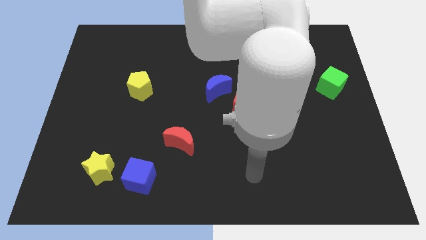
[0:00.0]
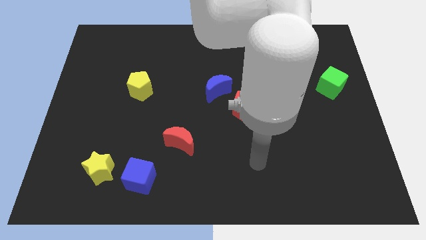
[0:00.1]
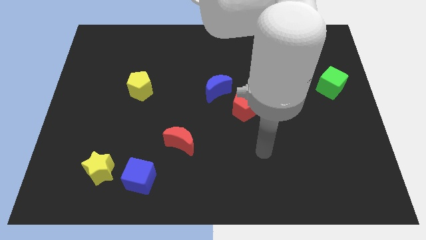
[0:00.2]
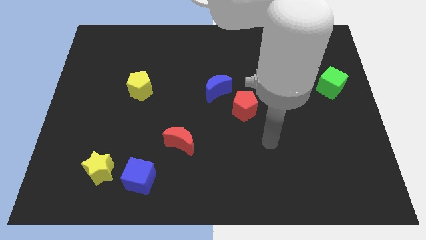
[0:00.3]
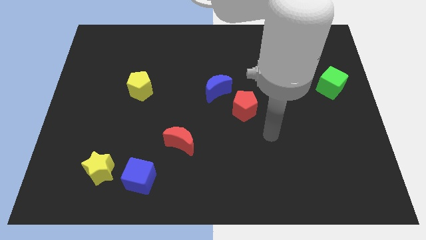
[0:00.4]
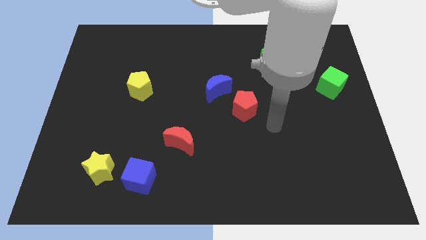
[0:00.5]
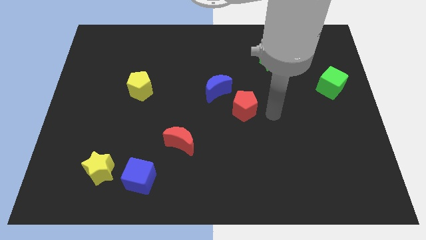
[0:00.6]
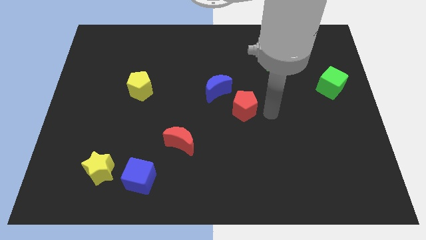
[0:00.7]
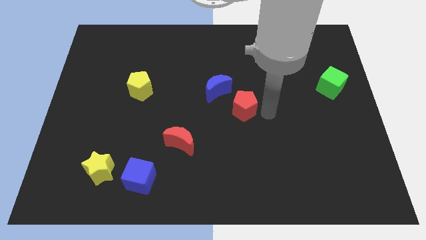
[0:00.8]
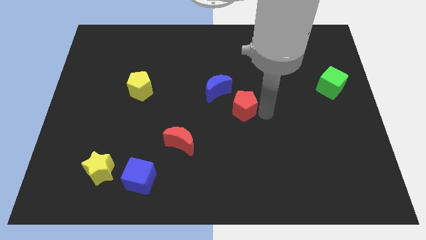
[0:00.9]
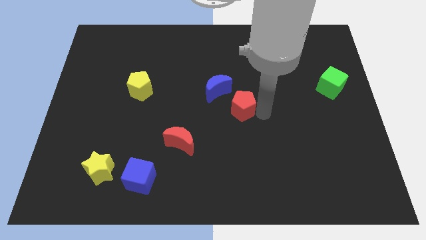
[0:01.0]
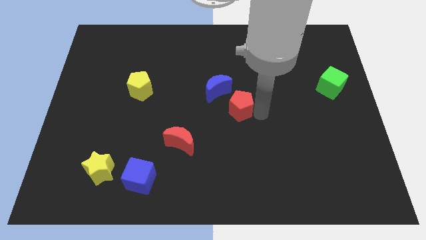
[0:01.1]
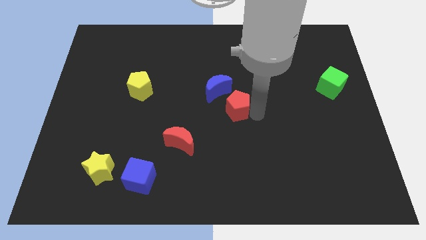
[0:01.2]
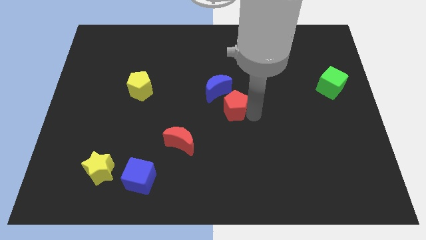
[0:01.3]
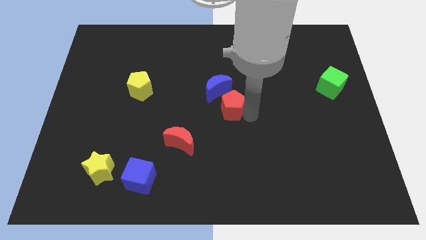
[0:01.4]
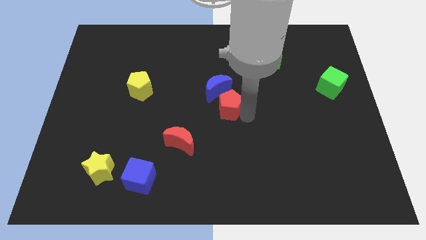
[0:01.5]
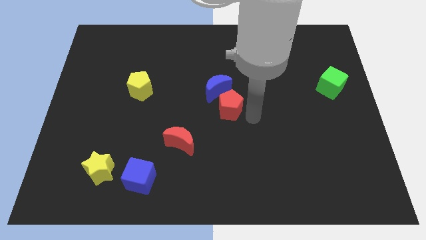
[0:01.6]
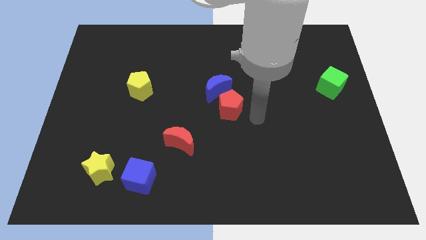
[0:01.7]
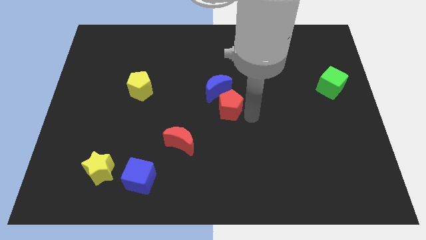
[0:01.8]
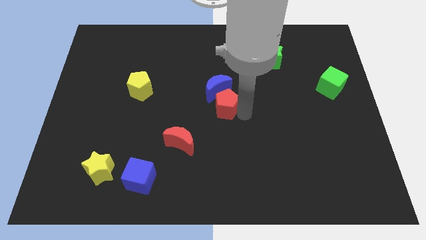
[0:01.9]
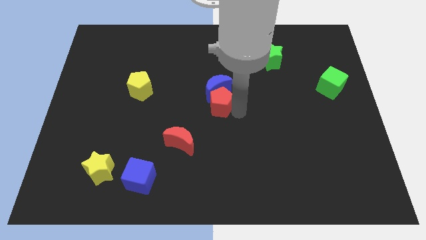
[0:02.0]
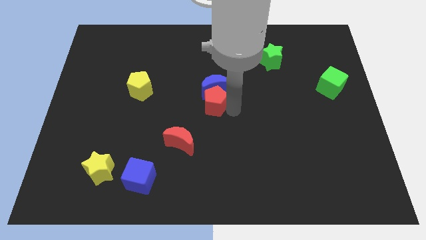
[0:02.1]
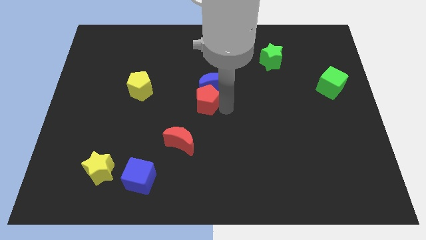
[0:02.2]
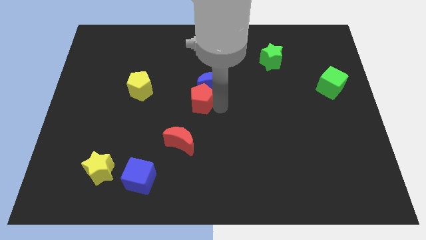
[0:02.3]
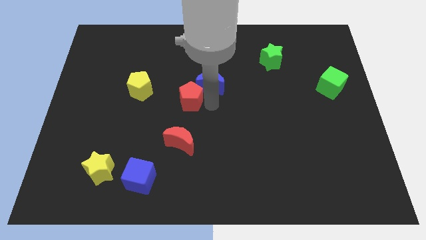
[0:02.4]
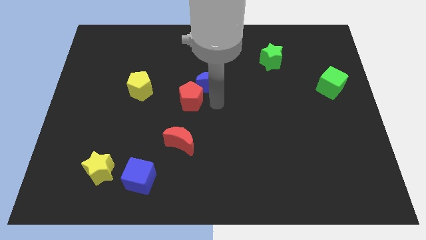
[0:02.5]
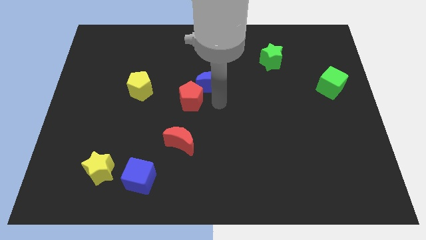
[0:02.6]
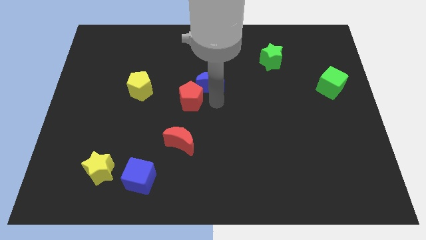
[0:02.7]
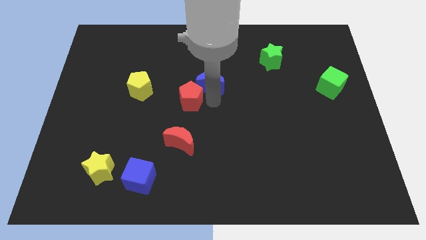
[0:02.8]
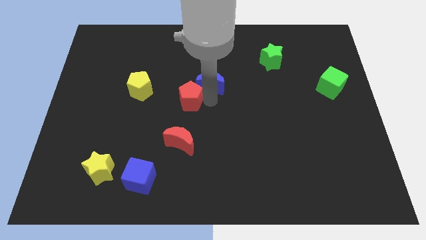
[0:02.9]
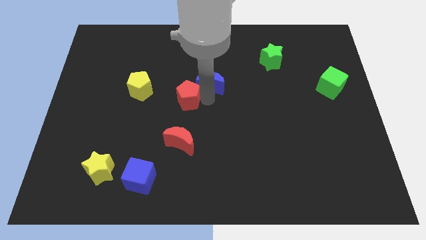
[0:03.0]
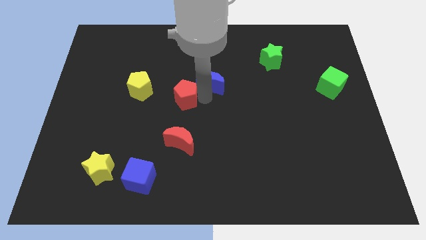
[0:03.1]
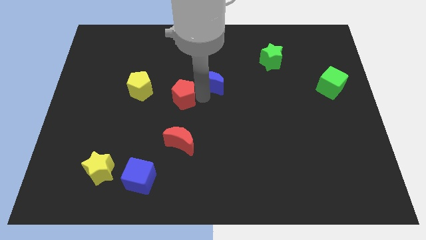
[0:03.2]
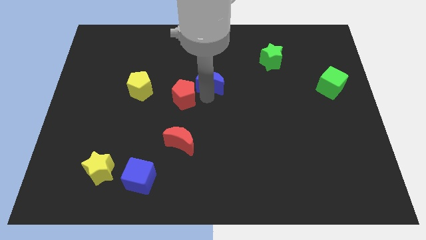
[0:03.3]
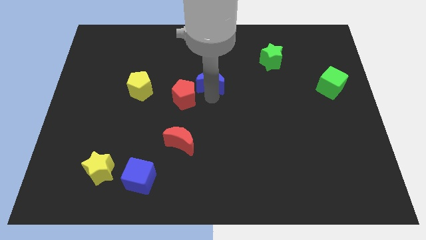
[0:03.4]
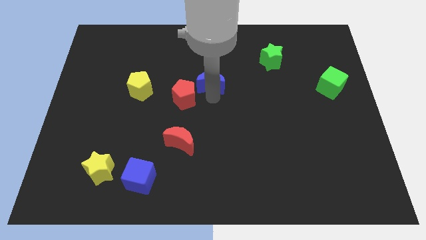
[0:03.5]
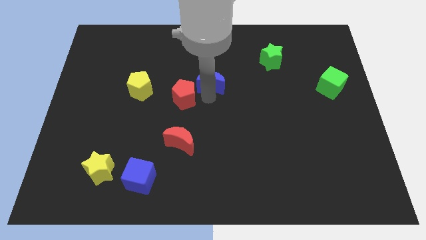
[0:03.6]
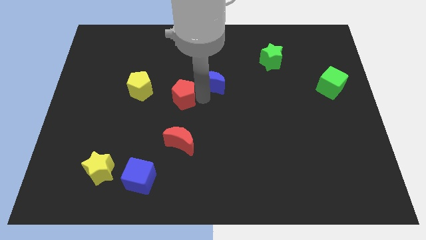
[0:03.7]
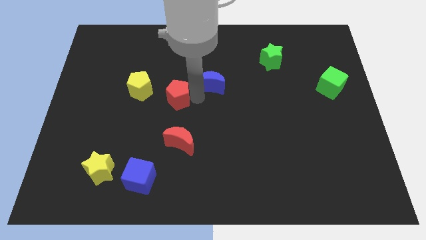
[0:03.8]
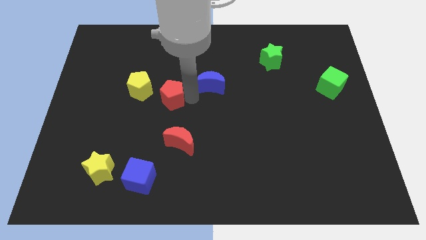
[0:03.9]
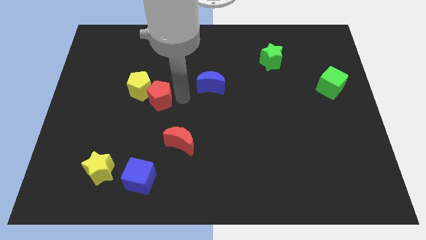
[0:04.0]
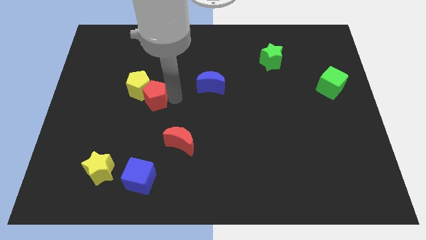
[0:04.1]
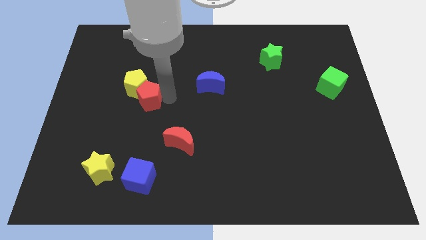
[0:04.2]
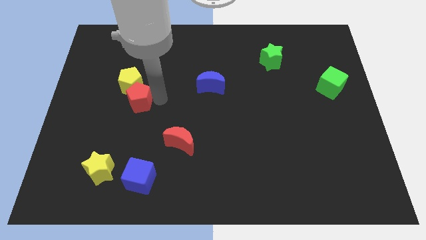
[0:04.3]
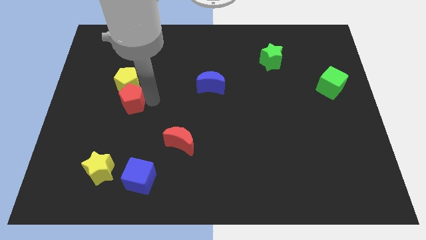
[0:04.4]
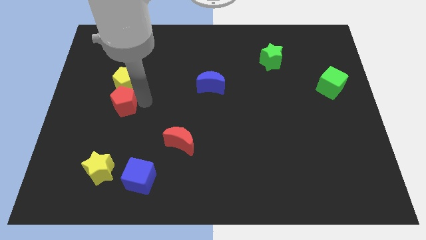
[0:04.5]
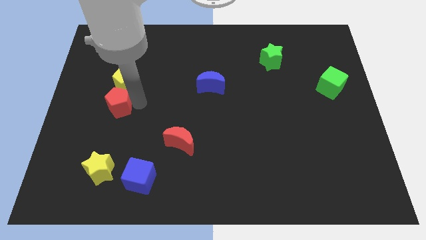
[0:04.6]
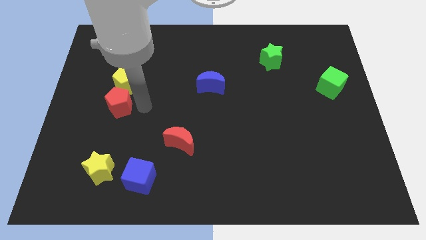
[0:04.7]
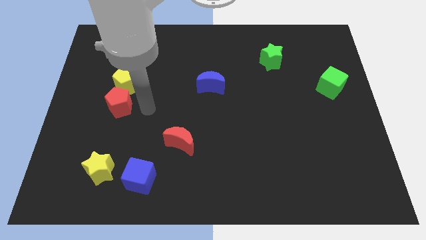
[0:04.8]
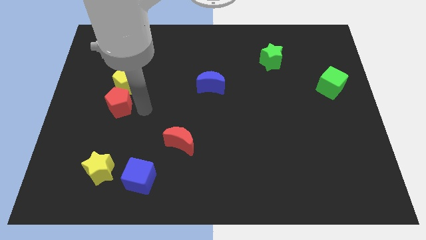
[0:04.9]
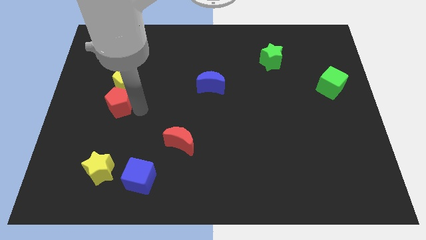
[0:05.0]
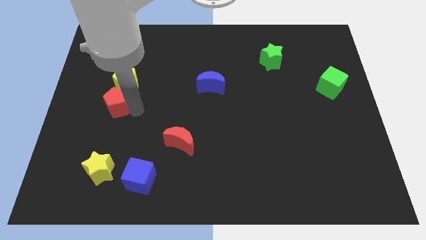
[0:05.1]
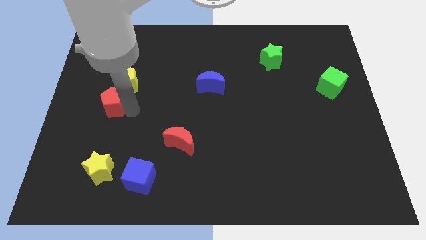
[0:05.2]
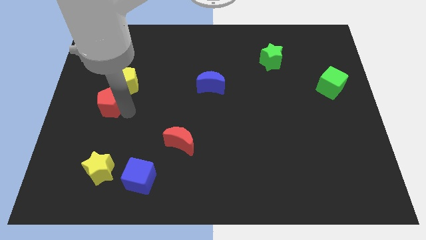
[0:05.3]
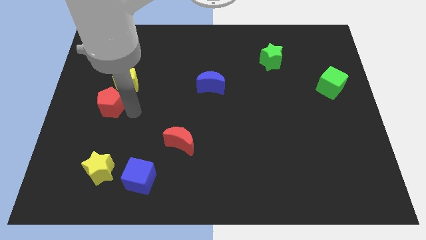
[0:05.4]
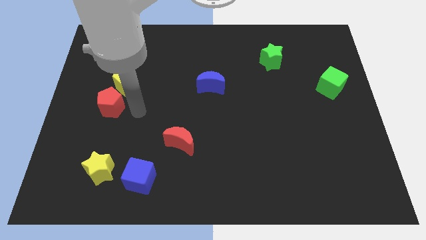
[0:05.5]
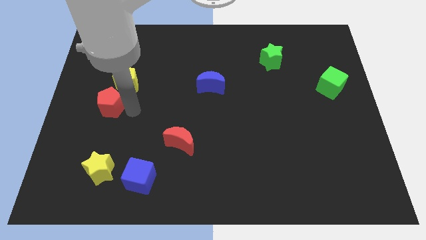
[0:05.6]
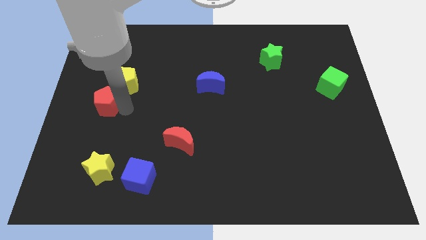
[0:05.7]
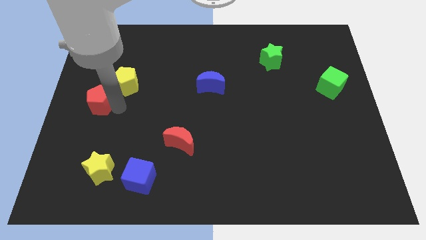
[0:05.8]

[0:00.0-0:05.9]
move the red pentagon to the center left
